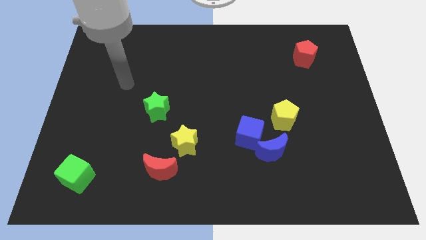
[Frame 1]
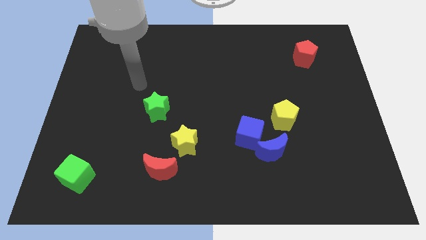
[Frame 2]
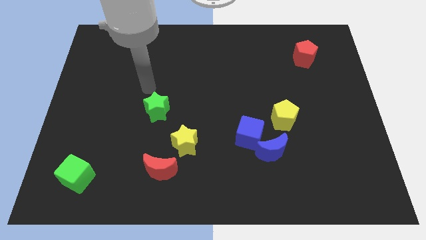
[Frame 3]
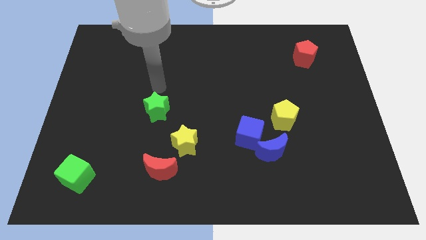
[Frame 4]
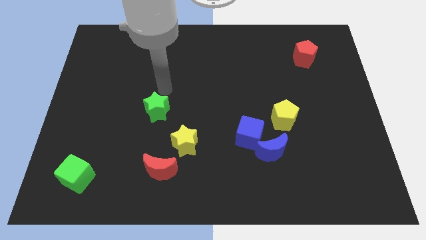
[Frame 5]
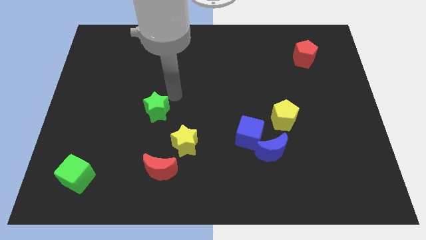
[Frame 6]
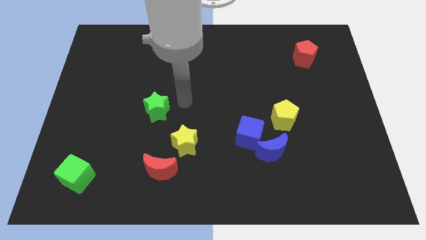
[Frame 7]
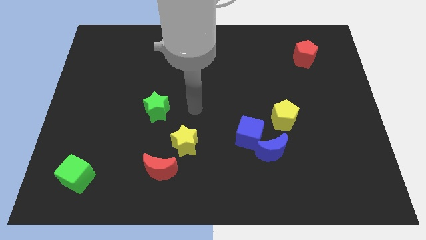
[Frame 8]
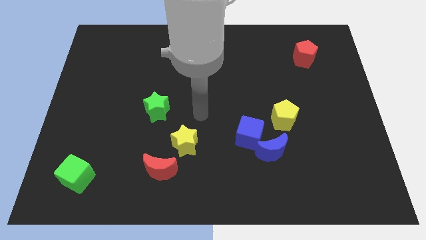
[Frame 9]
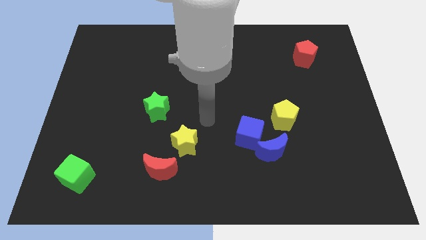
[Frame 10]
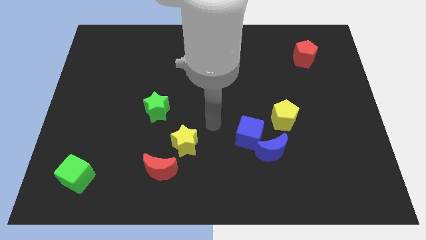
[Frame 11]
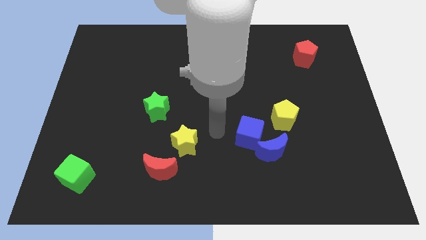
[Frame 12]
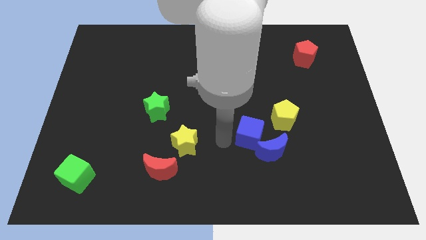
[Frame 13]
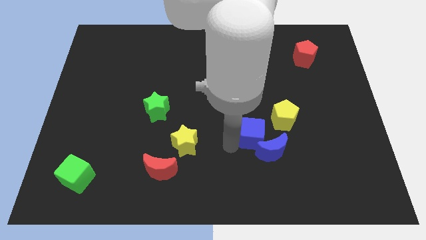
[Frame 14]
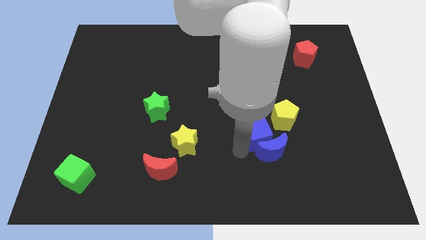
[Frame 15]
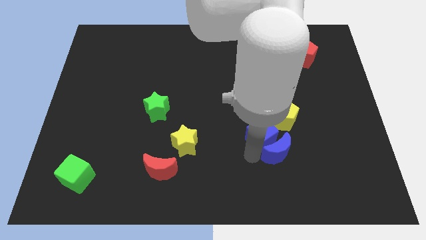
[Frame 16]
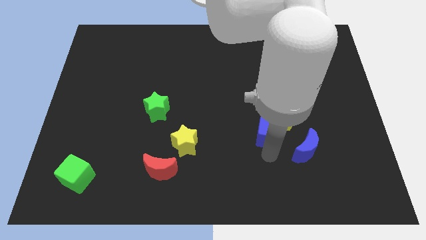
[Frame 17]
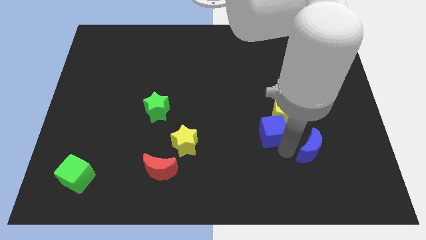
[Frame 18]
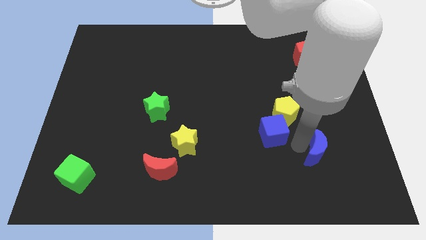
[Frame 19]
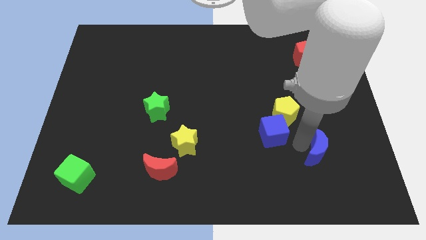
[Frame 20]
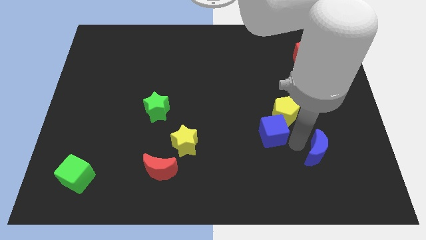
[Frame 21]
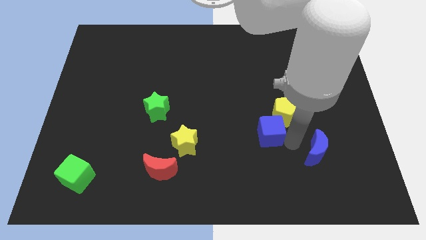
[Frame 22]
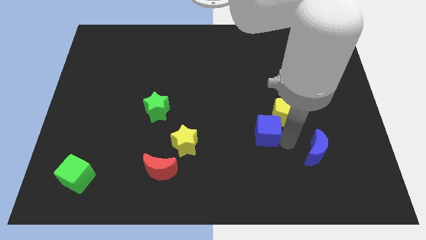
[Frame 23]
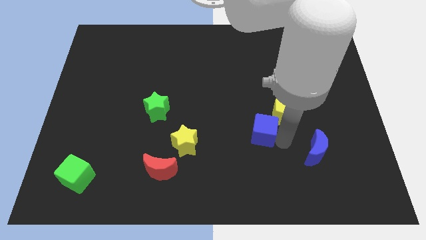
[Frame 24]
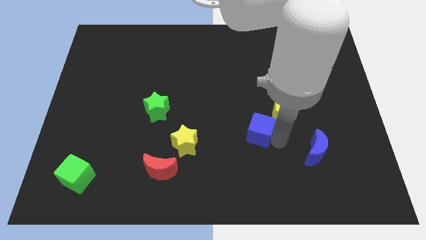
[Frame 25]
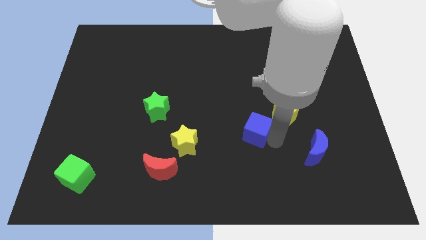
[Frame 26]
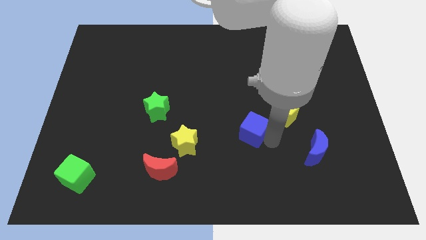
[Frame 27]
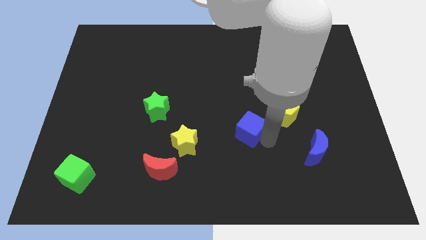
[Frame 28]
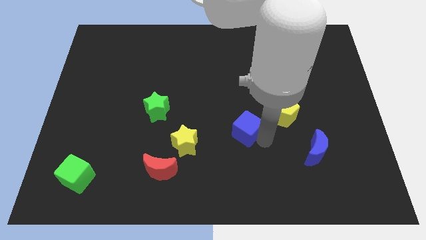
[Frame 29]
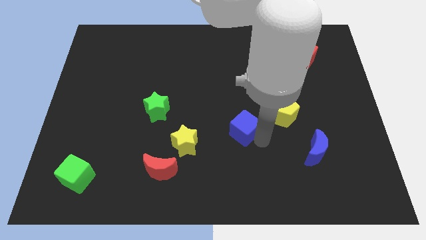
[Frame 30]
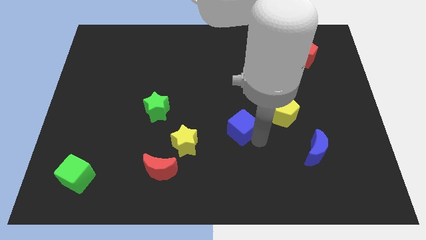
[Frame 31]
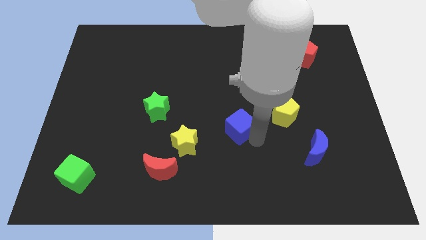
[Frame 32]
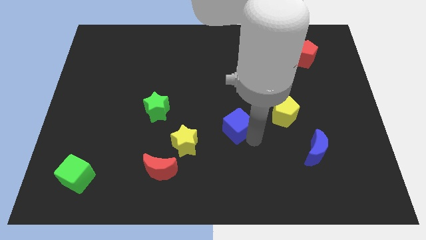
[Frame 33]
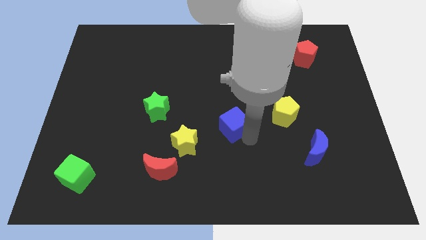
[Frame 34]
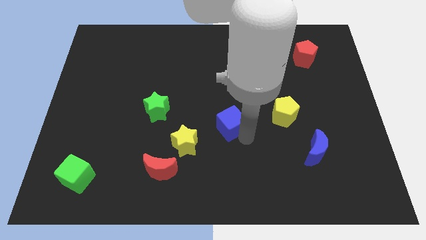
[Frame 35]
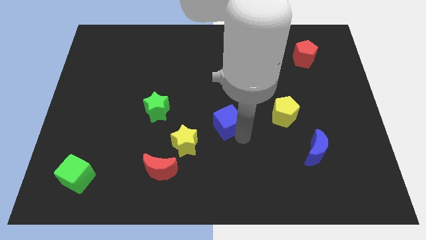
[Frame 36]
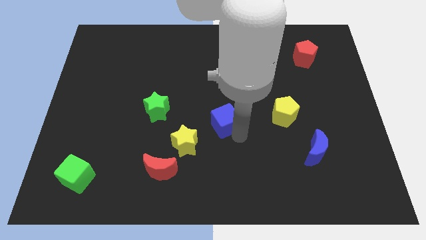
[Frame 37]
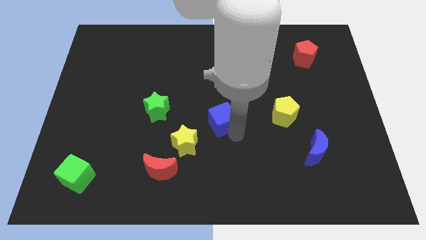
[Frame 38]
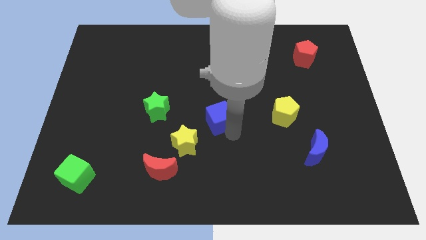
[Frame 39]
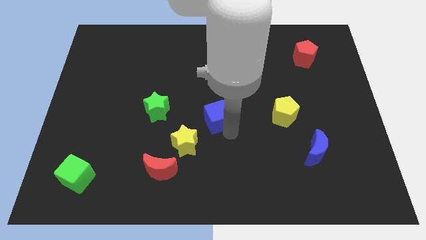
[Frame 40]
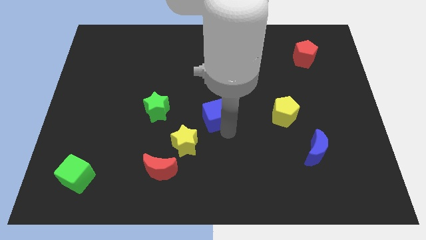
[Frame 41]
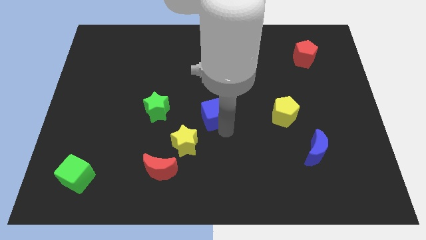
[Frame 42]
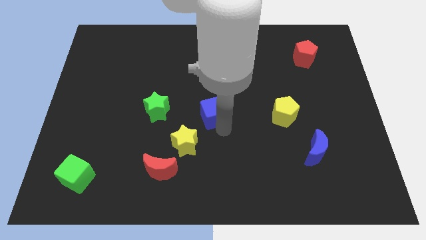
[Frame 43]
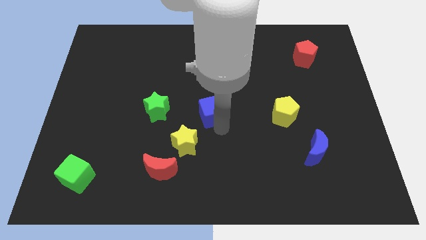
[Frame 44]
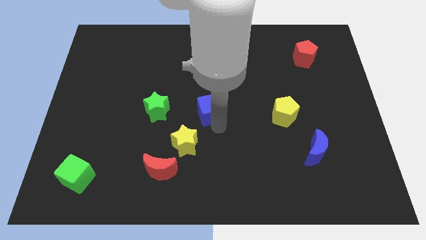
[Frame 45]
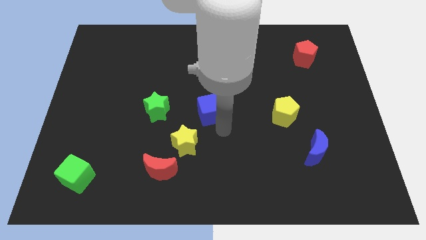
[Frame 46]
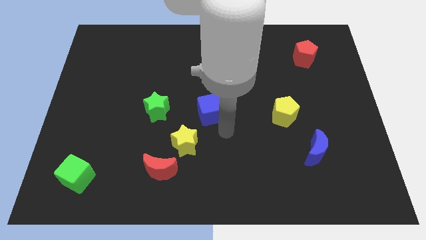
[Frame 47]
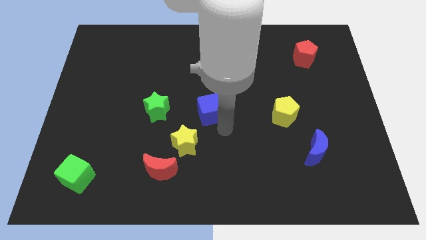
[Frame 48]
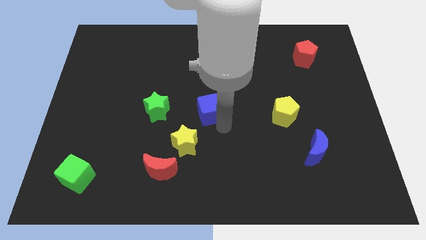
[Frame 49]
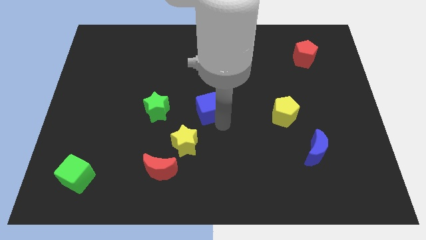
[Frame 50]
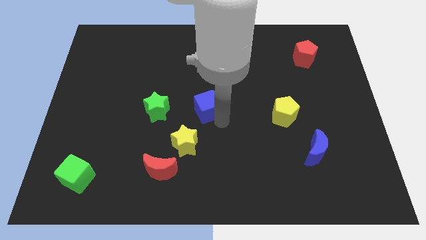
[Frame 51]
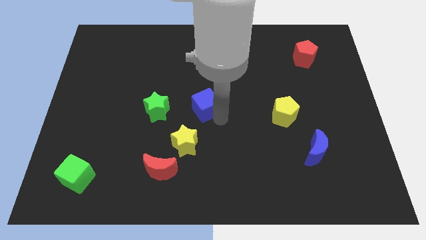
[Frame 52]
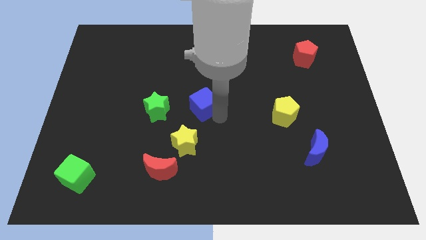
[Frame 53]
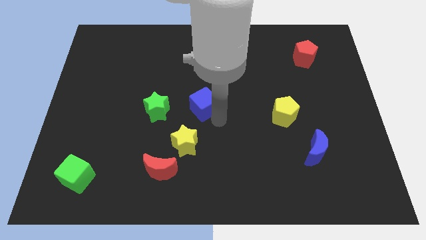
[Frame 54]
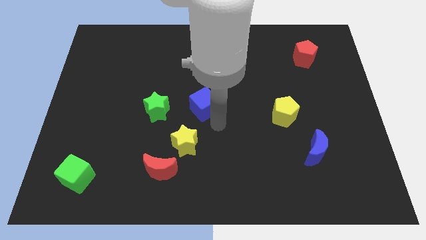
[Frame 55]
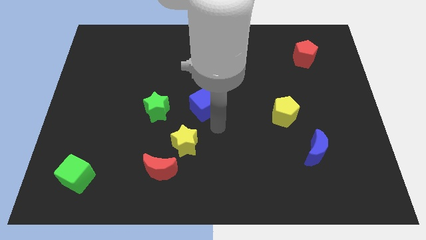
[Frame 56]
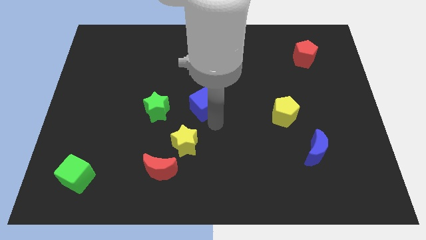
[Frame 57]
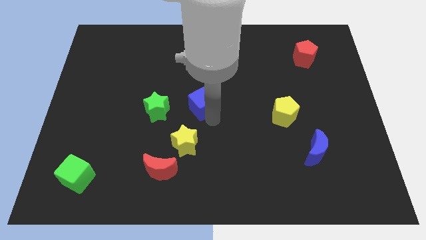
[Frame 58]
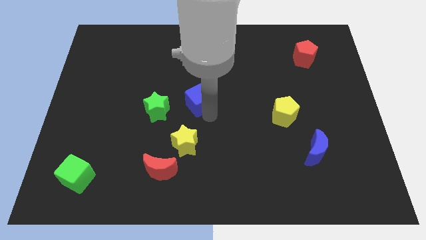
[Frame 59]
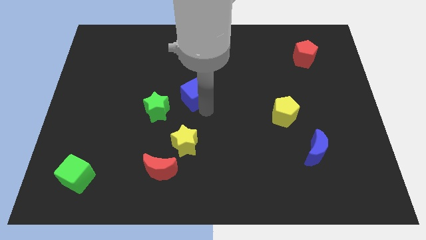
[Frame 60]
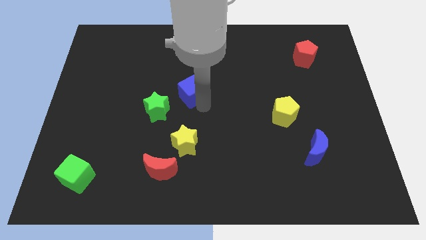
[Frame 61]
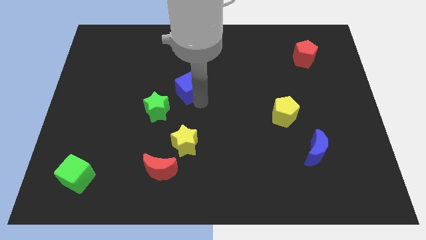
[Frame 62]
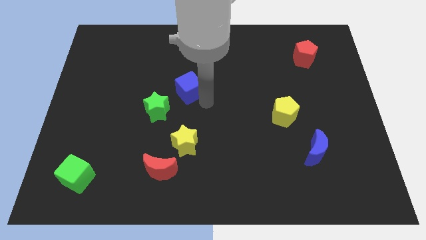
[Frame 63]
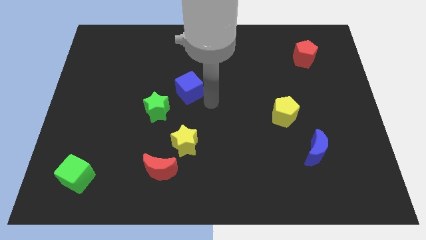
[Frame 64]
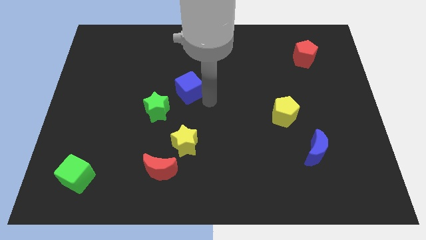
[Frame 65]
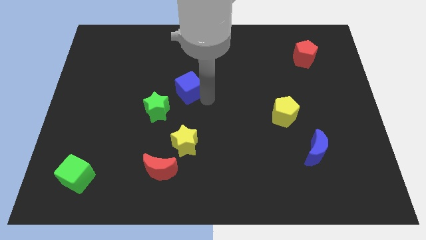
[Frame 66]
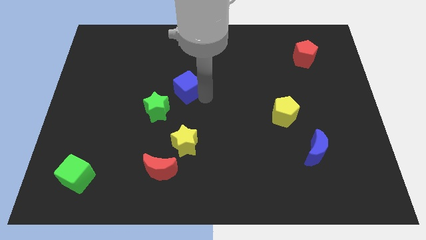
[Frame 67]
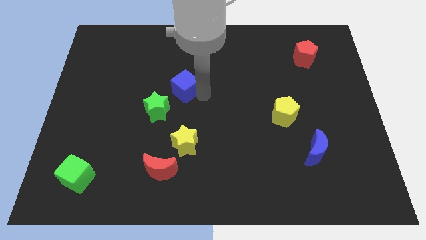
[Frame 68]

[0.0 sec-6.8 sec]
move the blue cube up and to the left diagonally

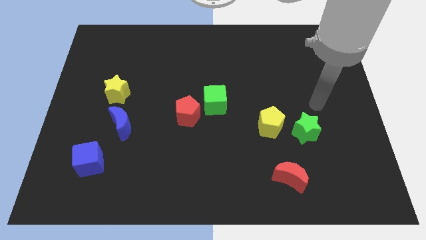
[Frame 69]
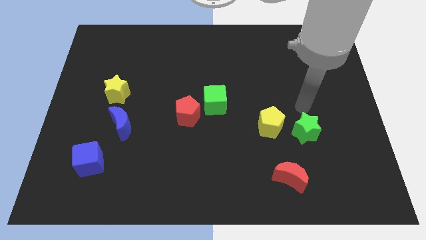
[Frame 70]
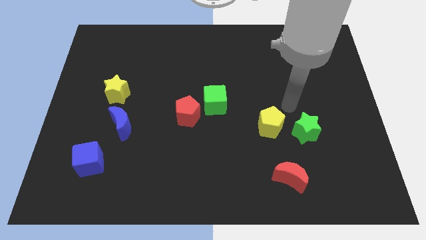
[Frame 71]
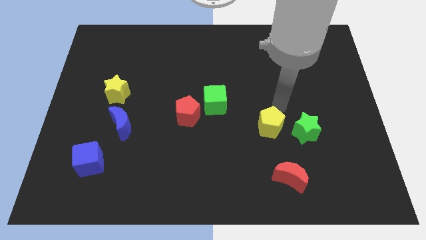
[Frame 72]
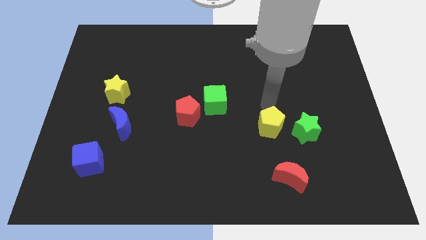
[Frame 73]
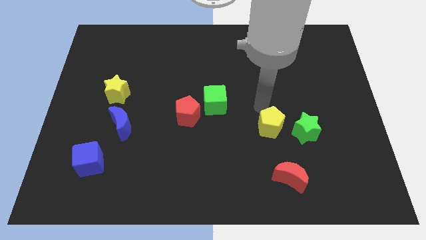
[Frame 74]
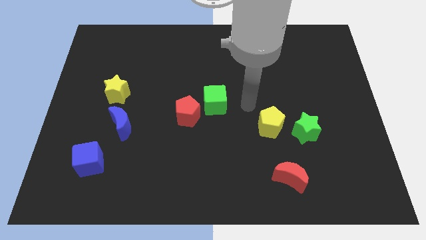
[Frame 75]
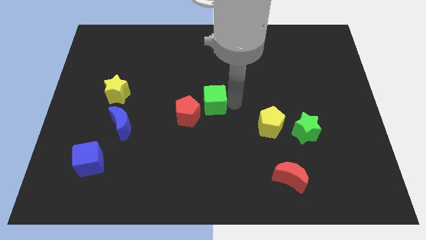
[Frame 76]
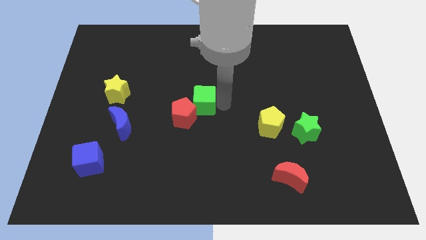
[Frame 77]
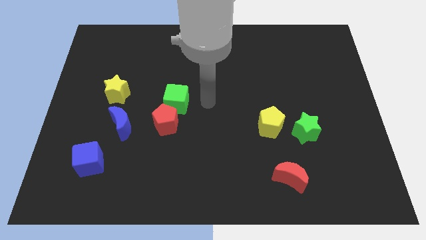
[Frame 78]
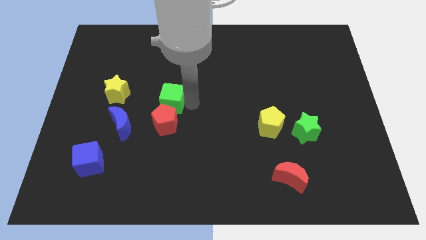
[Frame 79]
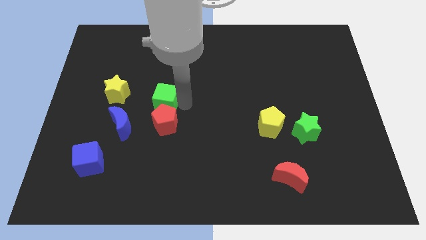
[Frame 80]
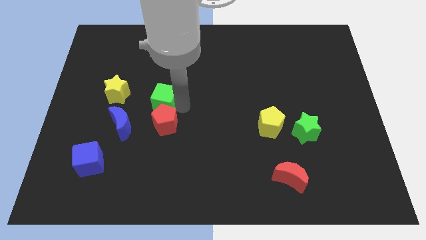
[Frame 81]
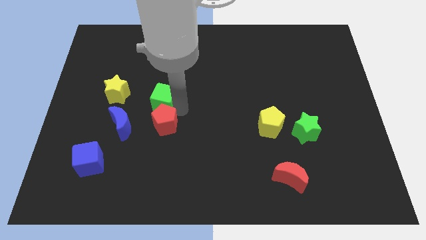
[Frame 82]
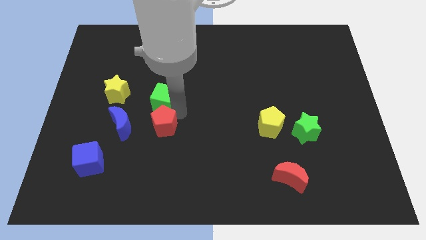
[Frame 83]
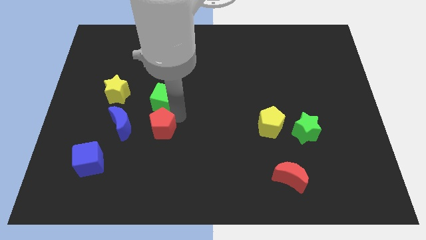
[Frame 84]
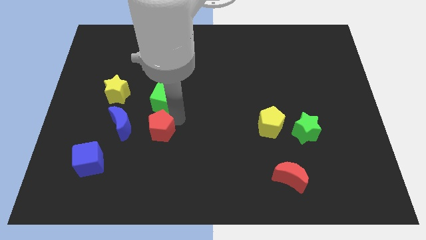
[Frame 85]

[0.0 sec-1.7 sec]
move the red pentagon slightly downwards and left
